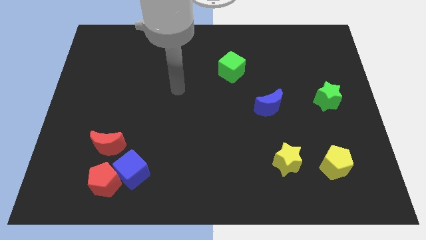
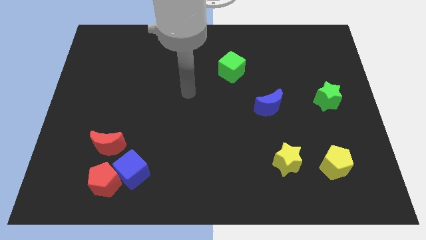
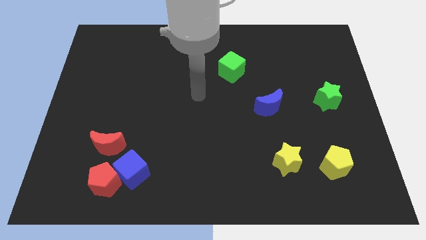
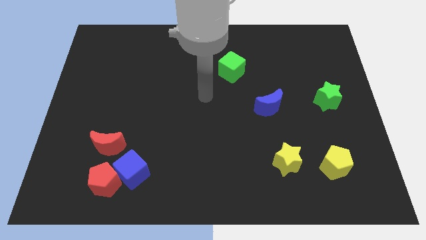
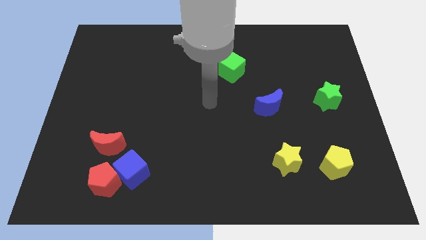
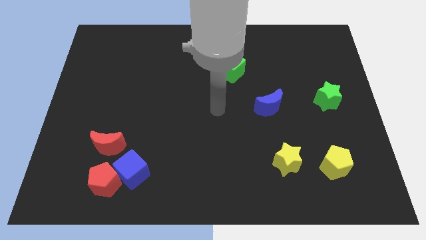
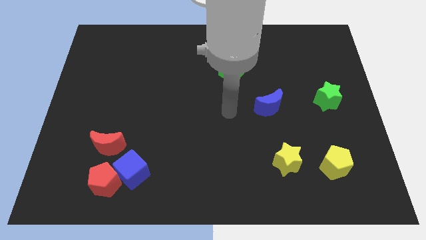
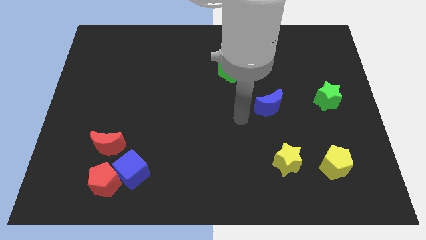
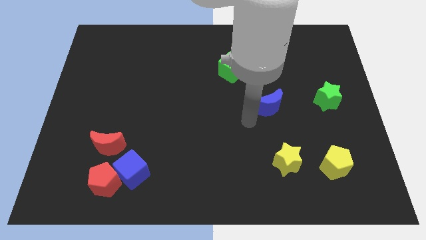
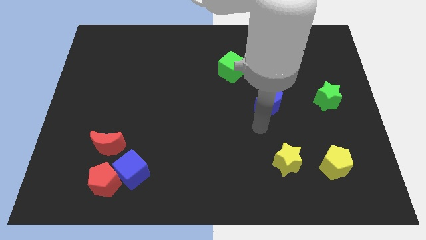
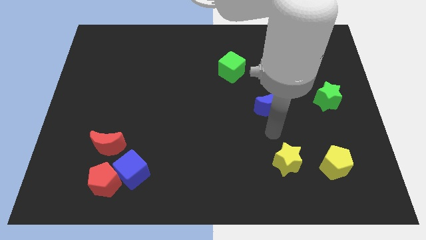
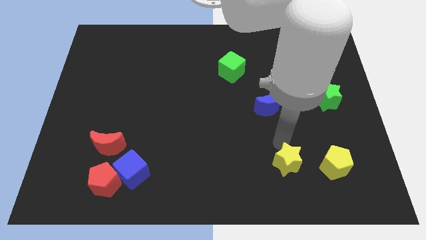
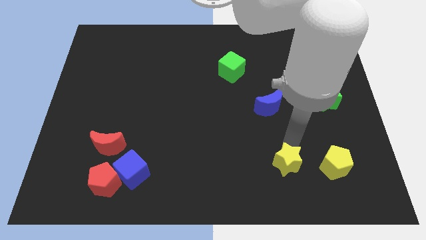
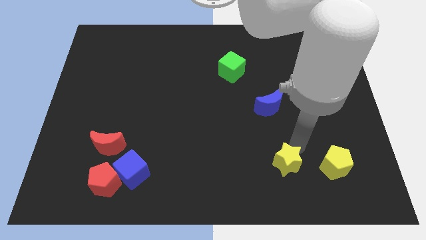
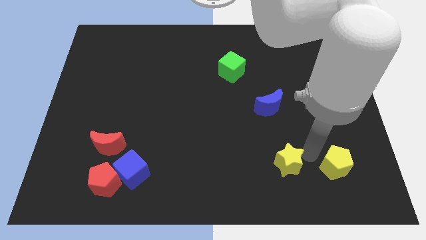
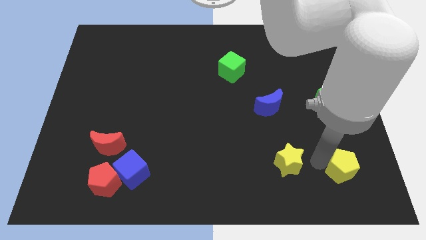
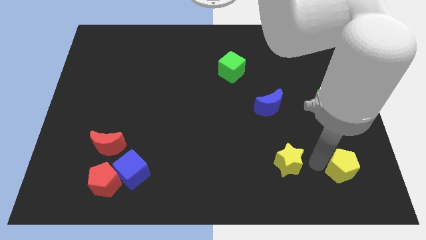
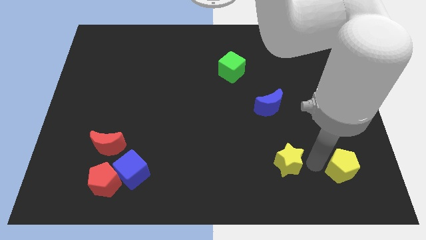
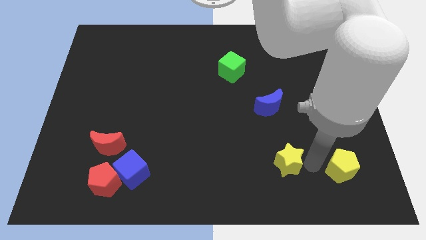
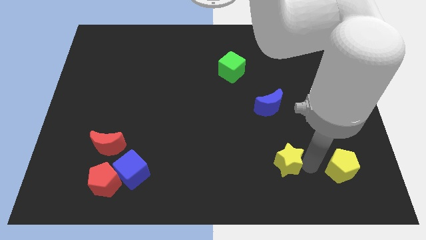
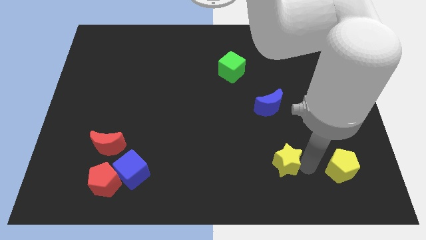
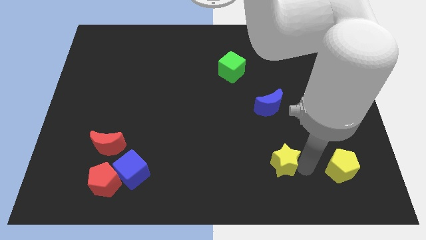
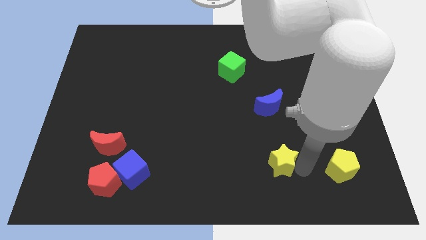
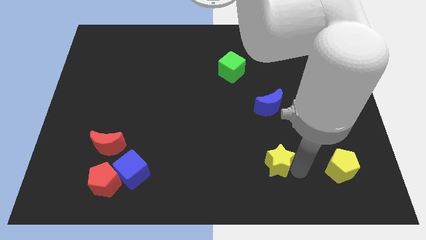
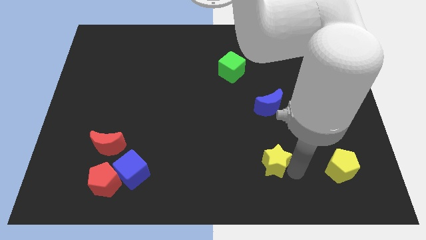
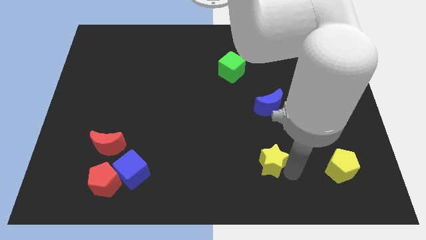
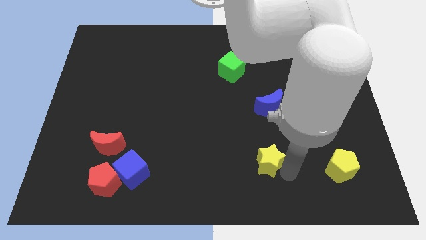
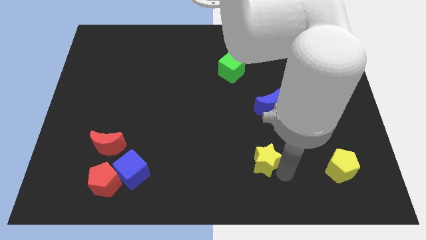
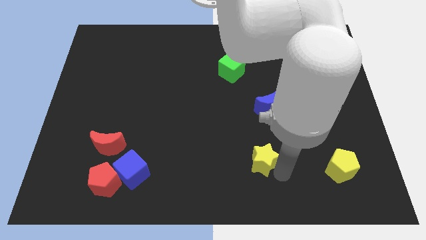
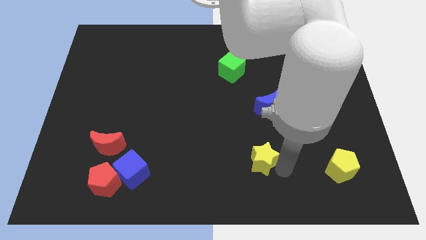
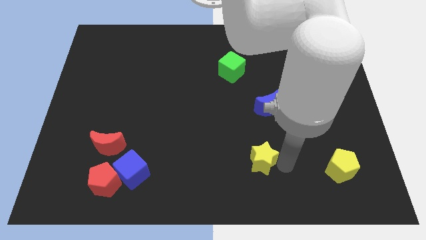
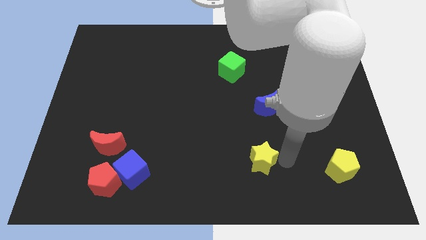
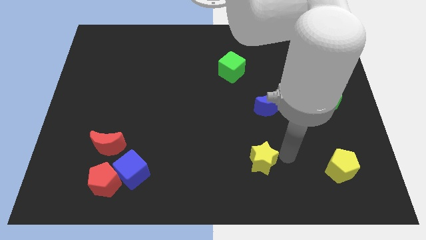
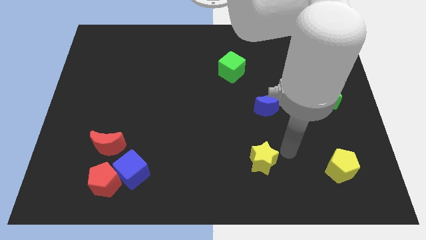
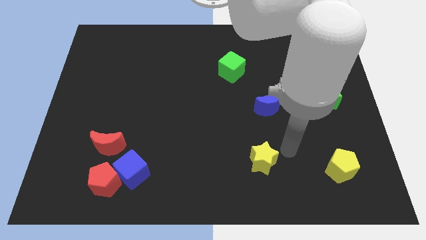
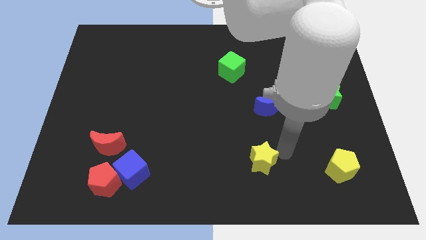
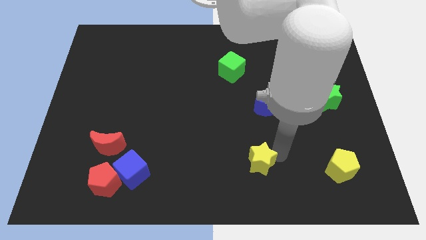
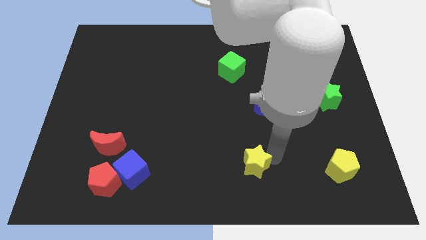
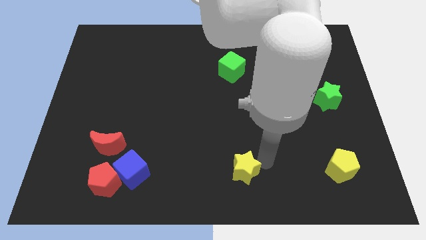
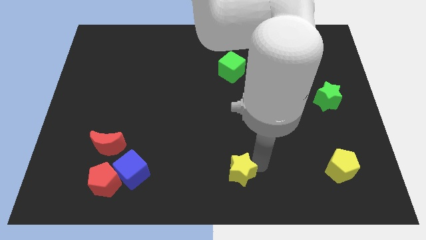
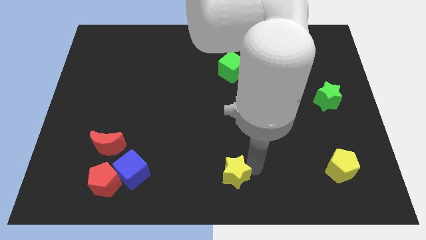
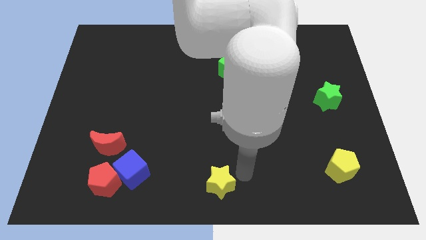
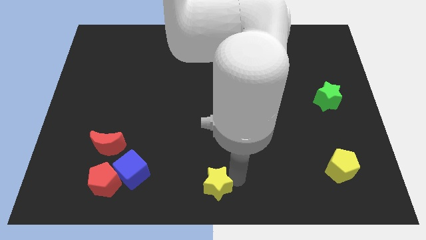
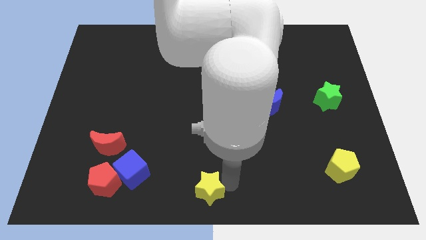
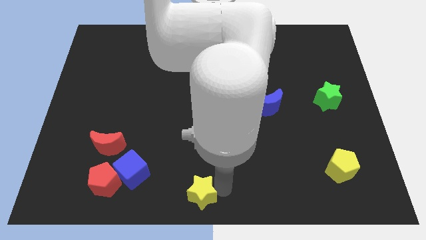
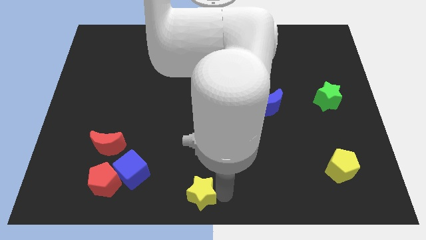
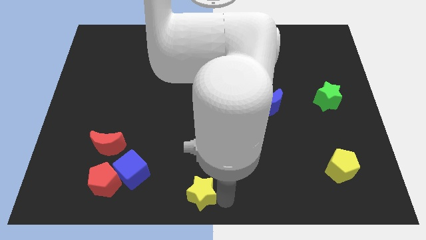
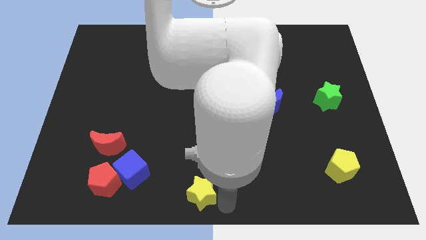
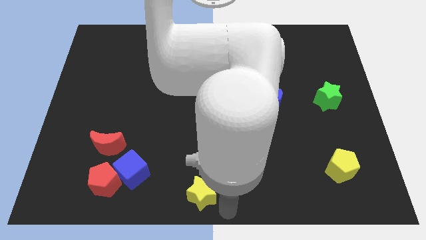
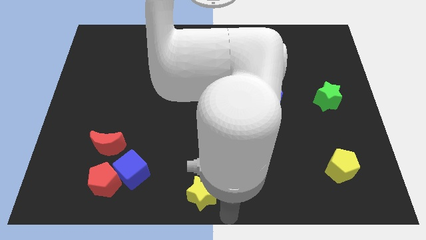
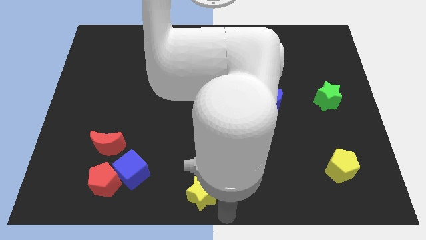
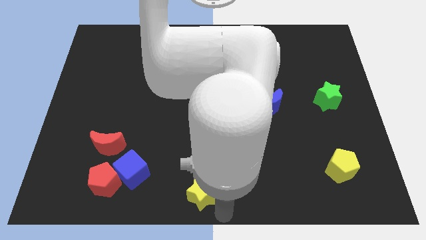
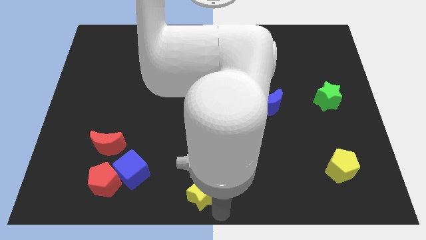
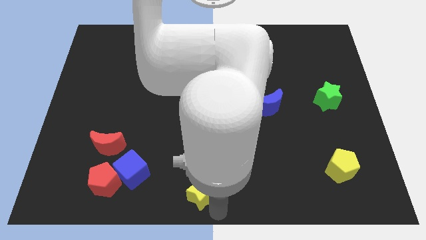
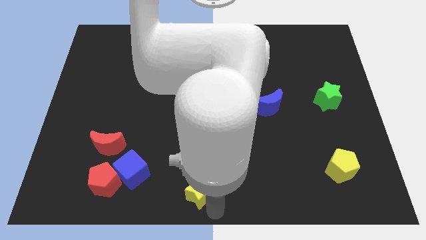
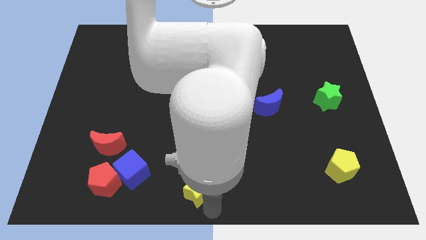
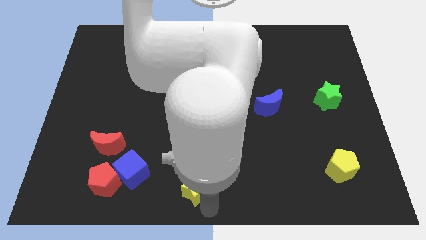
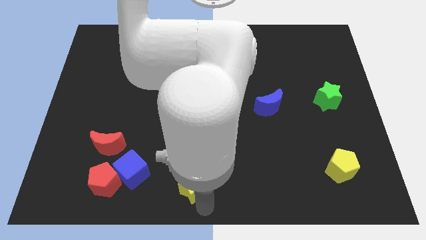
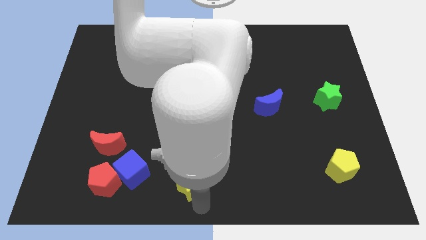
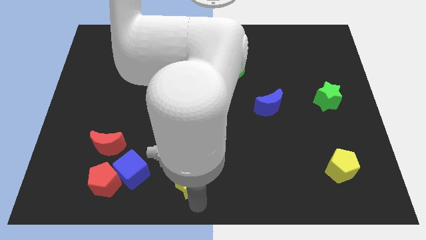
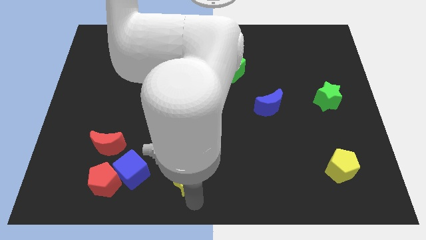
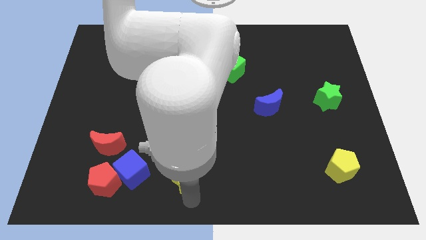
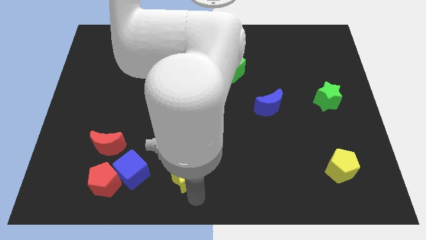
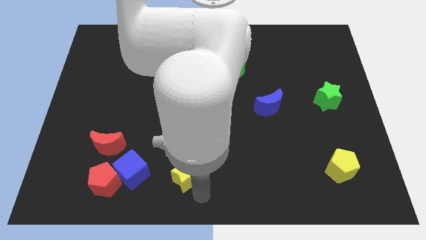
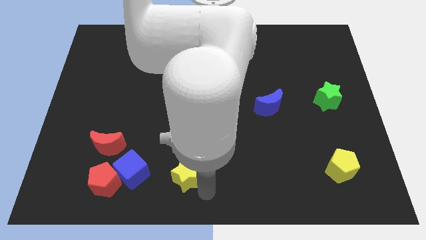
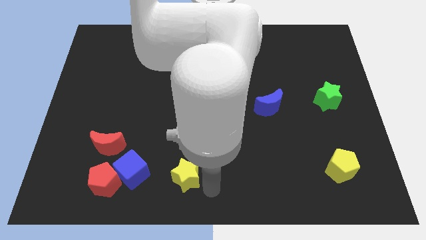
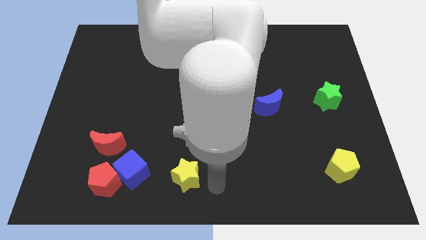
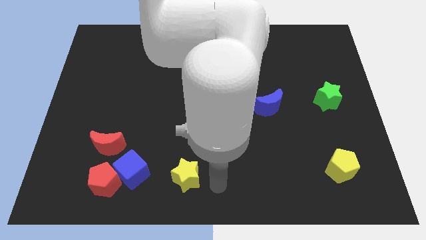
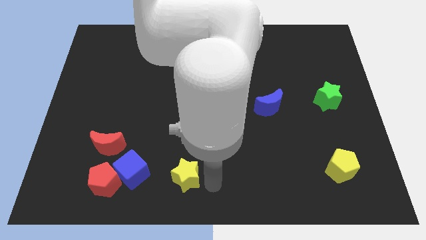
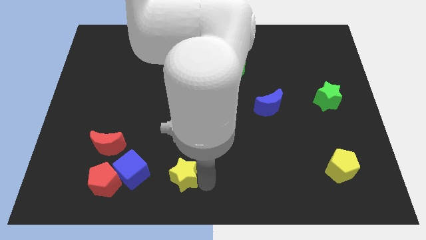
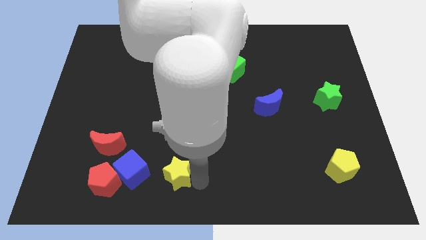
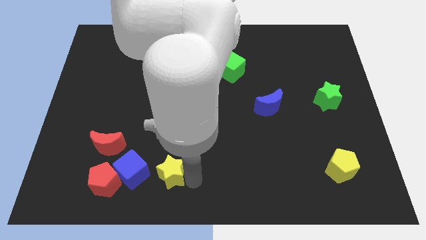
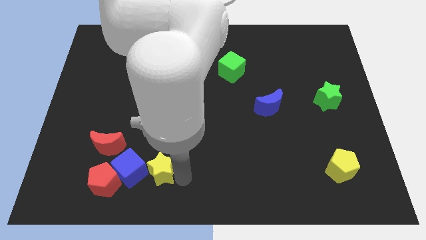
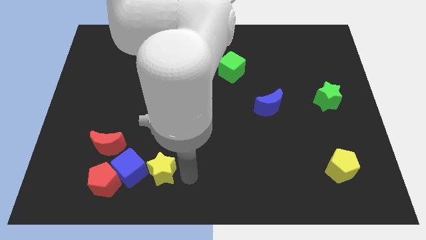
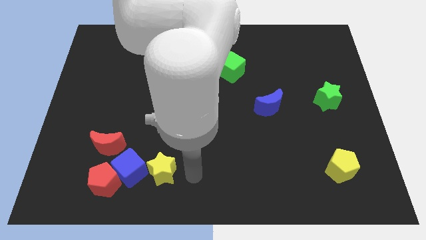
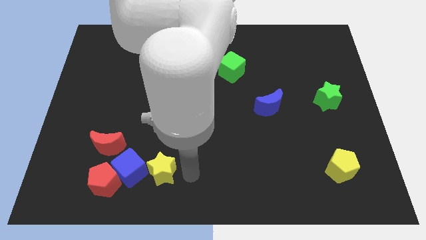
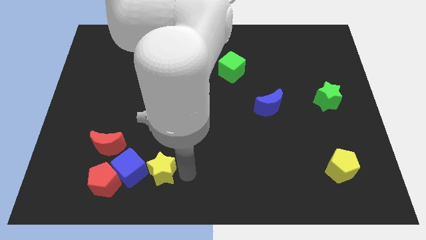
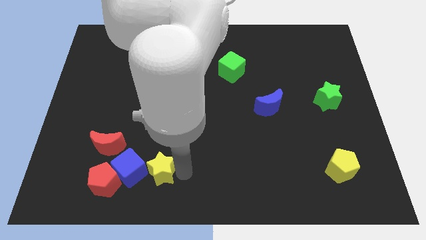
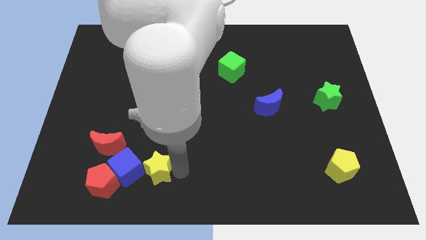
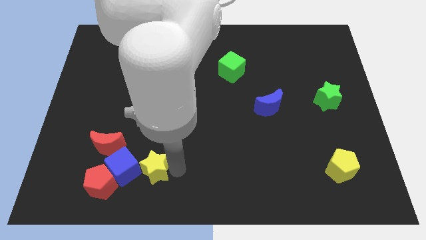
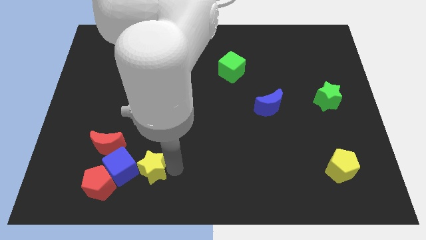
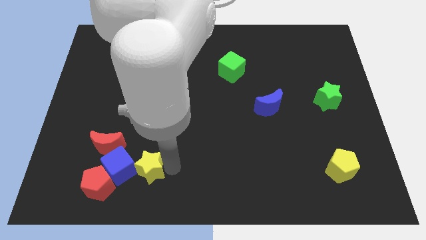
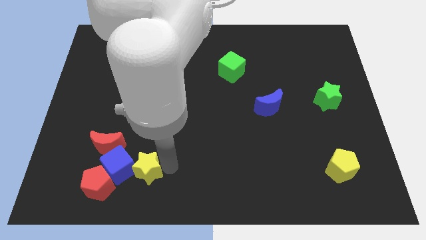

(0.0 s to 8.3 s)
put the yellow star towards the blue cube
